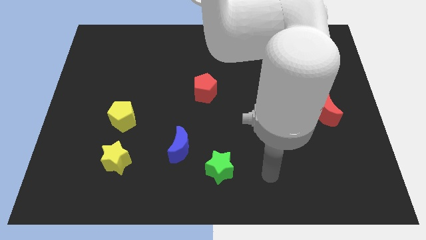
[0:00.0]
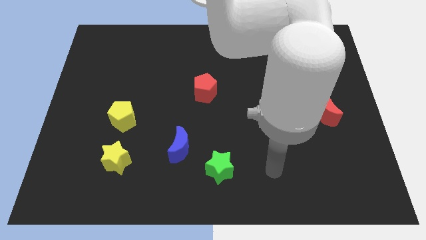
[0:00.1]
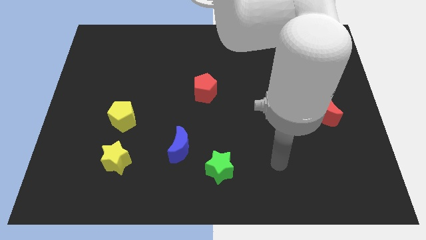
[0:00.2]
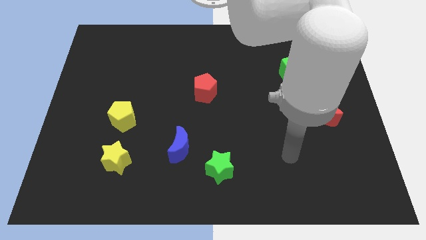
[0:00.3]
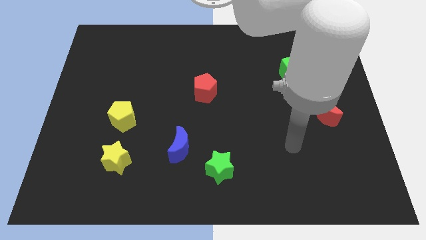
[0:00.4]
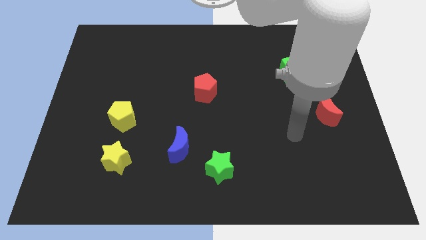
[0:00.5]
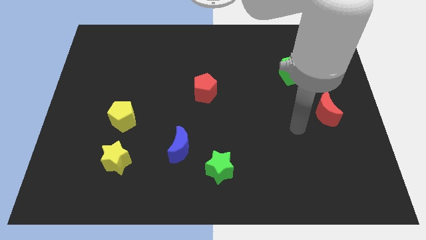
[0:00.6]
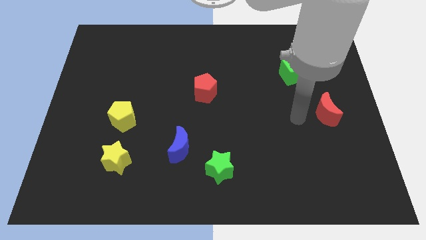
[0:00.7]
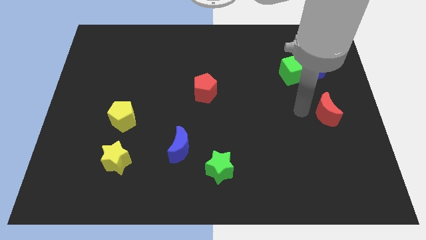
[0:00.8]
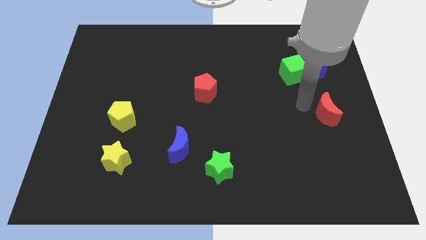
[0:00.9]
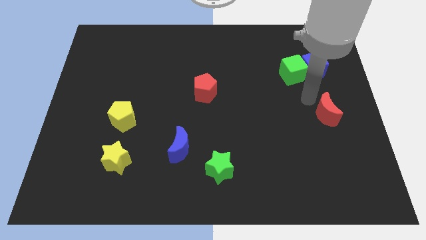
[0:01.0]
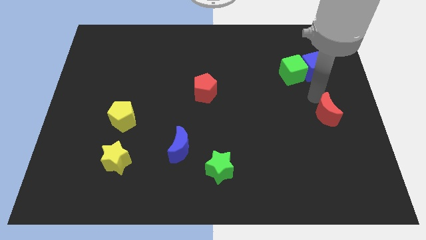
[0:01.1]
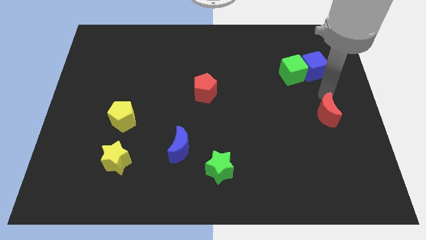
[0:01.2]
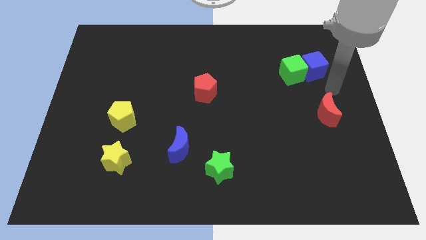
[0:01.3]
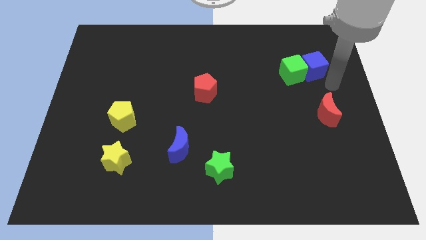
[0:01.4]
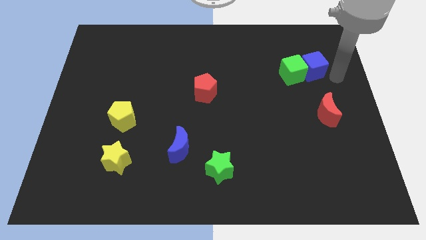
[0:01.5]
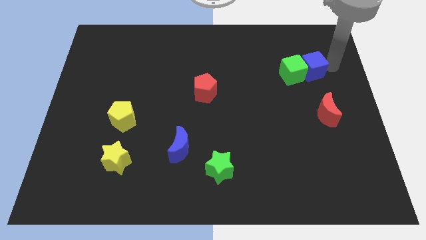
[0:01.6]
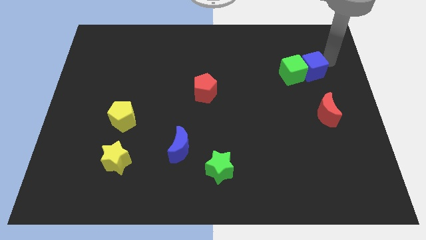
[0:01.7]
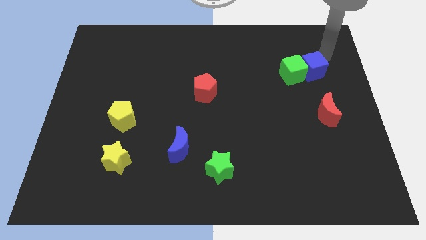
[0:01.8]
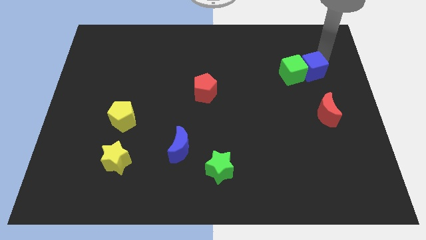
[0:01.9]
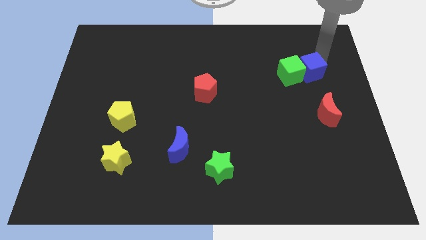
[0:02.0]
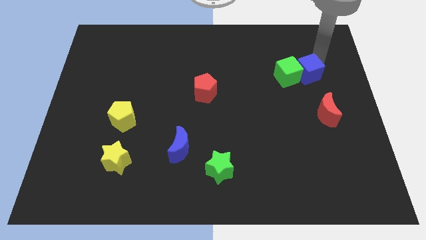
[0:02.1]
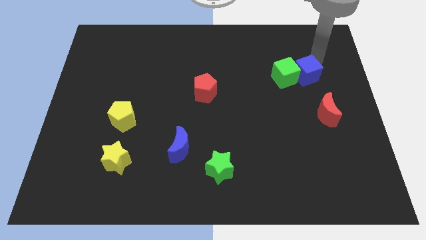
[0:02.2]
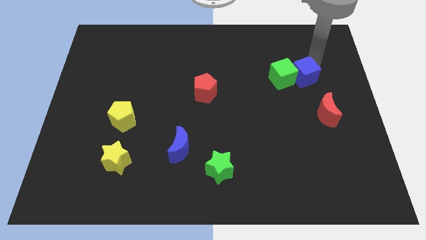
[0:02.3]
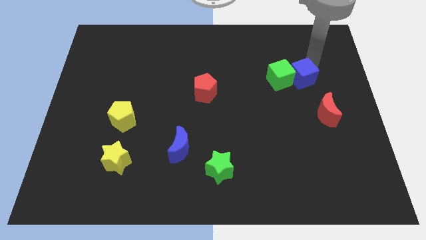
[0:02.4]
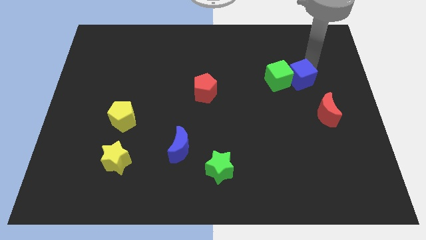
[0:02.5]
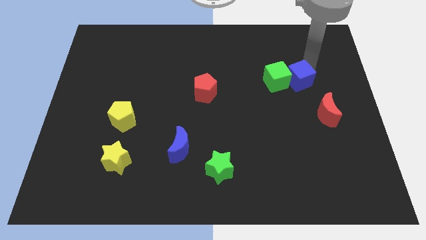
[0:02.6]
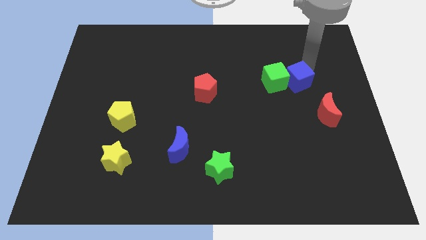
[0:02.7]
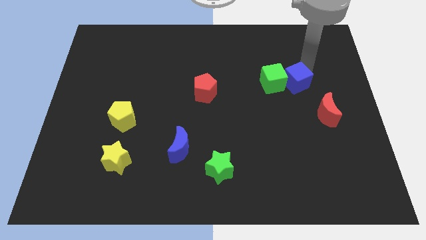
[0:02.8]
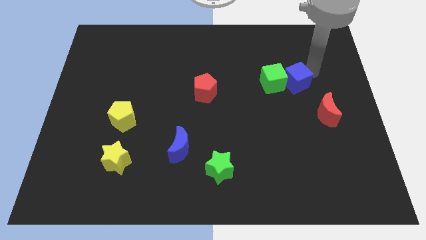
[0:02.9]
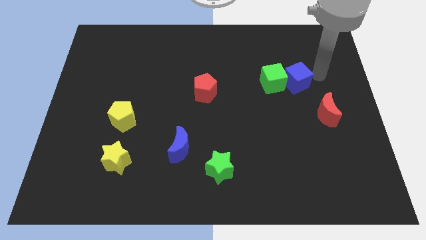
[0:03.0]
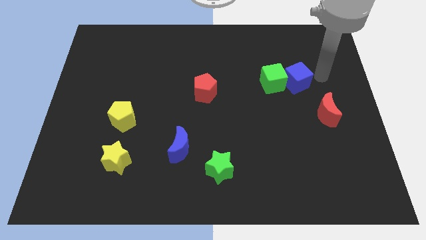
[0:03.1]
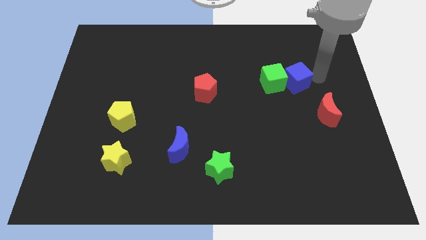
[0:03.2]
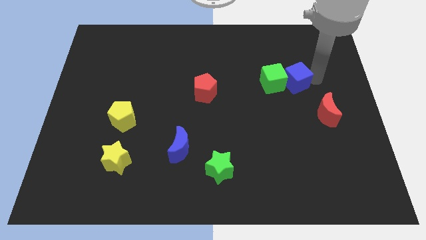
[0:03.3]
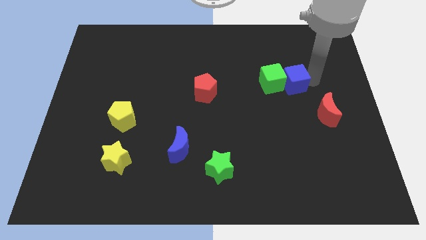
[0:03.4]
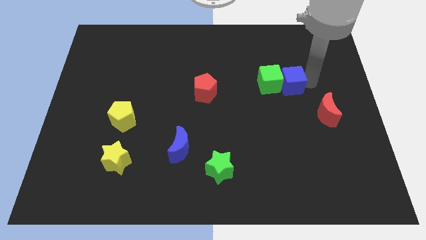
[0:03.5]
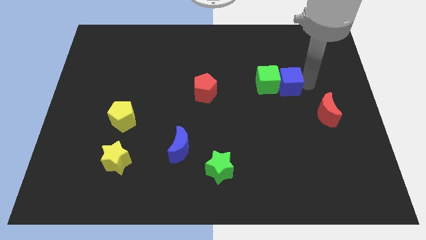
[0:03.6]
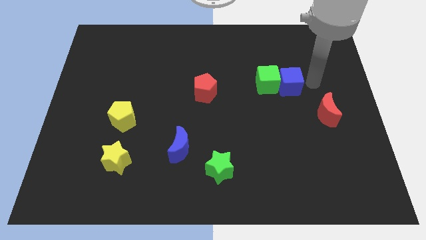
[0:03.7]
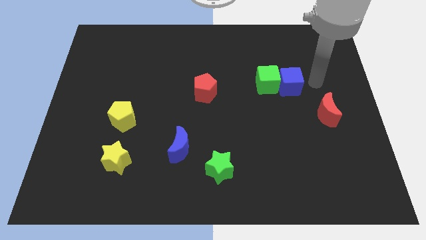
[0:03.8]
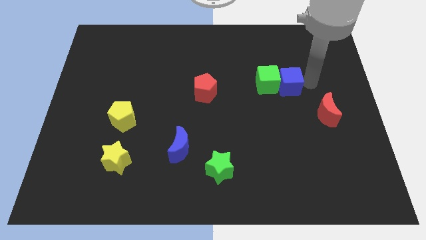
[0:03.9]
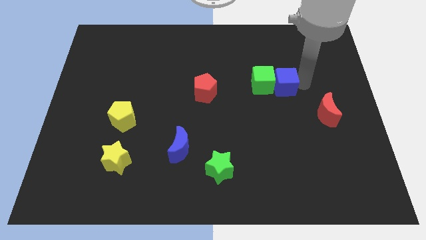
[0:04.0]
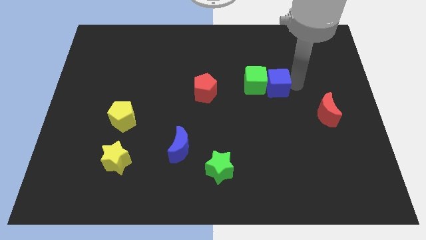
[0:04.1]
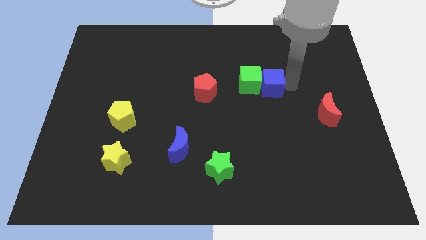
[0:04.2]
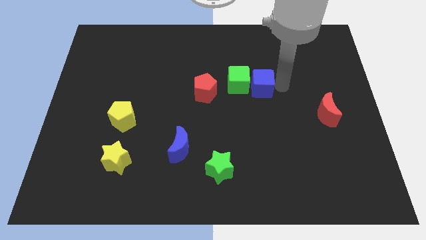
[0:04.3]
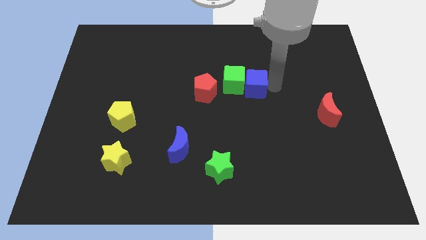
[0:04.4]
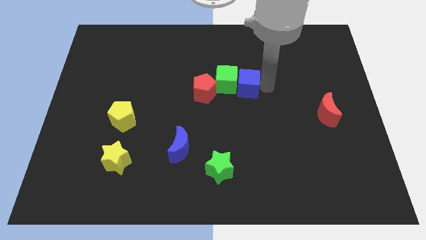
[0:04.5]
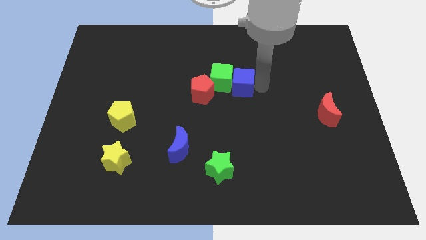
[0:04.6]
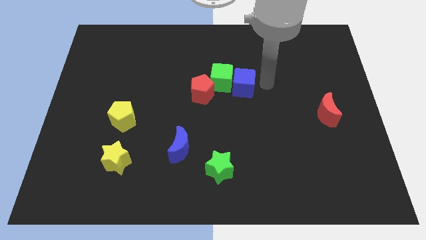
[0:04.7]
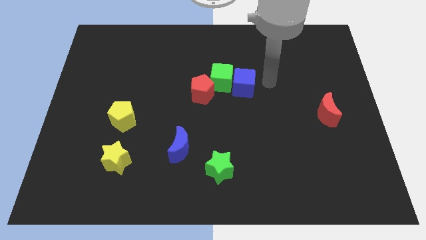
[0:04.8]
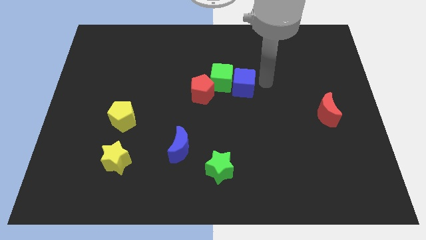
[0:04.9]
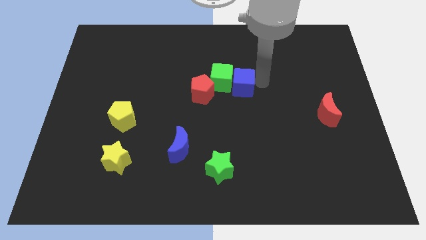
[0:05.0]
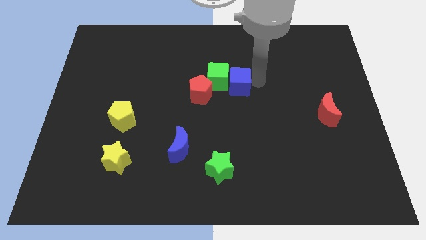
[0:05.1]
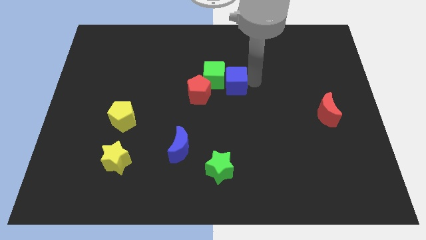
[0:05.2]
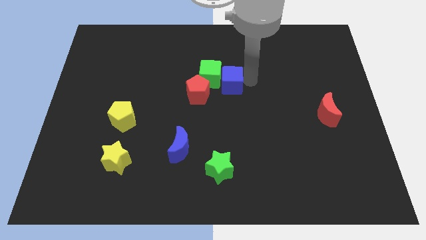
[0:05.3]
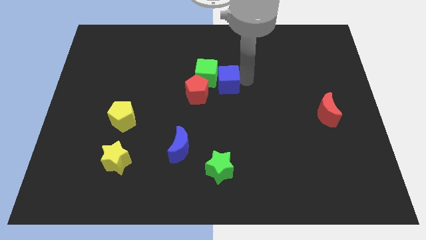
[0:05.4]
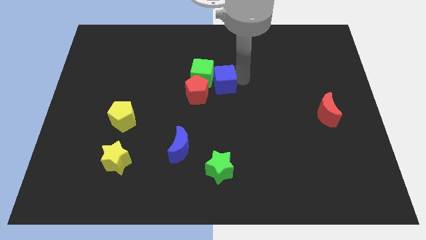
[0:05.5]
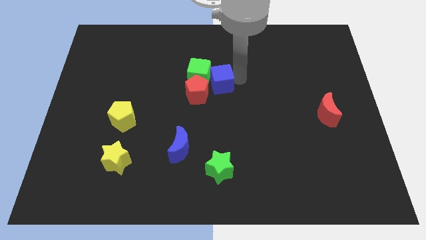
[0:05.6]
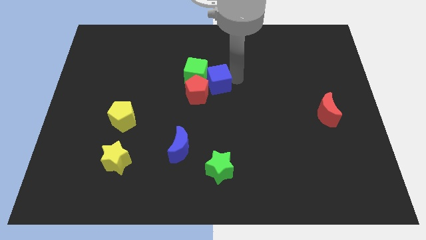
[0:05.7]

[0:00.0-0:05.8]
move the blue cube next to the red pentagon

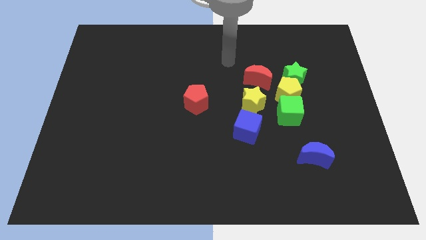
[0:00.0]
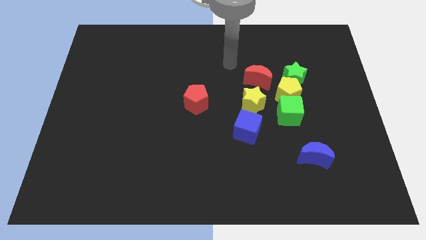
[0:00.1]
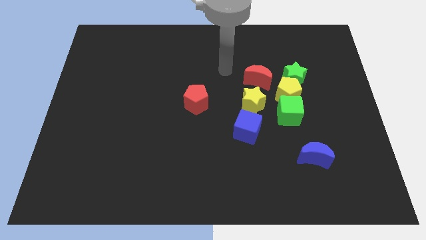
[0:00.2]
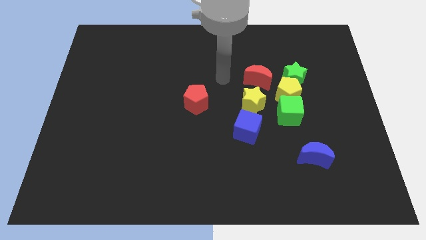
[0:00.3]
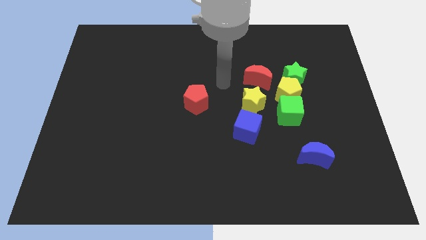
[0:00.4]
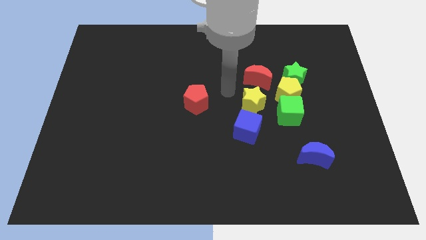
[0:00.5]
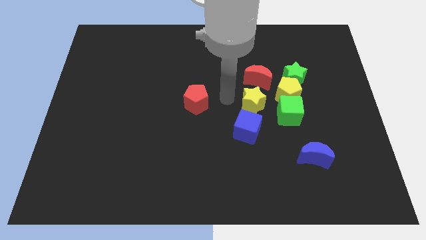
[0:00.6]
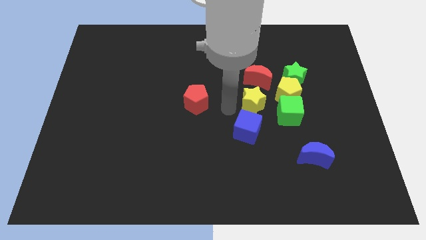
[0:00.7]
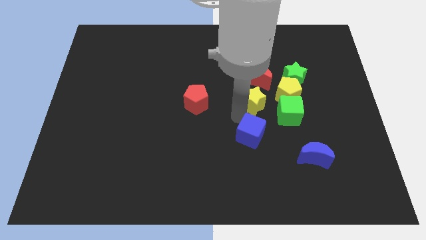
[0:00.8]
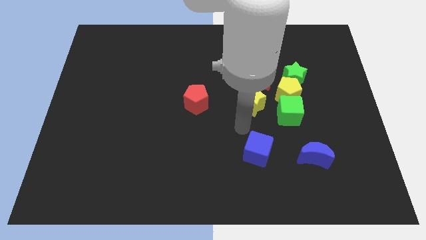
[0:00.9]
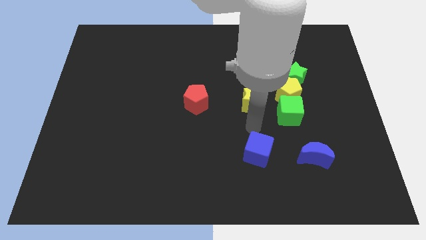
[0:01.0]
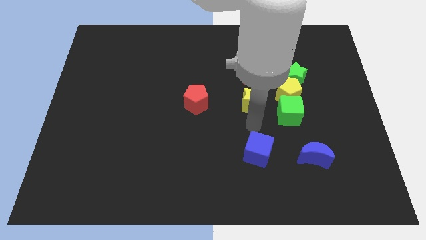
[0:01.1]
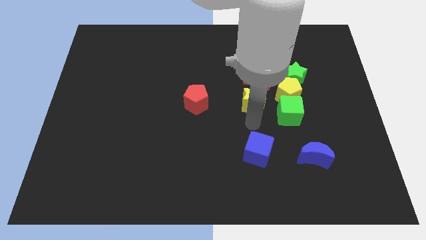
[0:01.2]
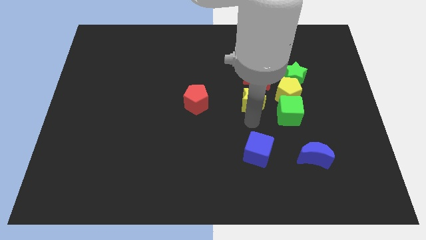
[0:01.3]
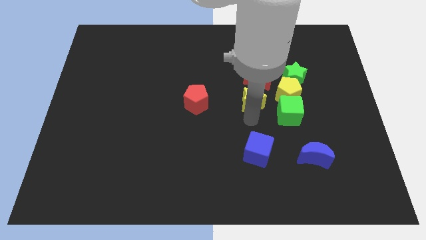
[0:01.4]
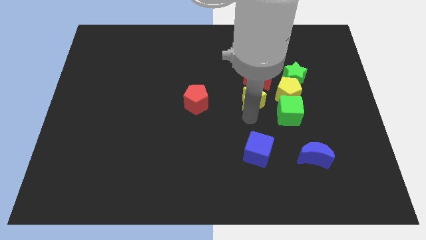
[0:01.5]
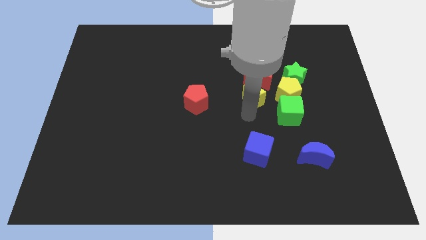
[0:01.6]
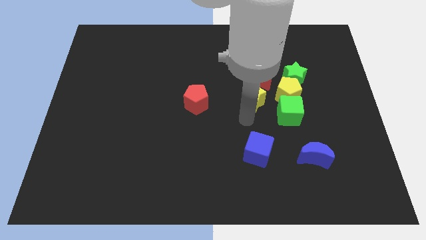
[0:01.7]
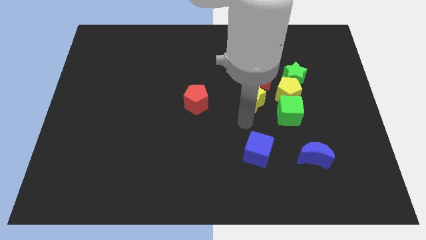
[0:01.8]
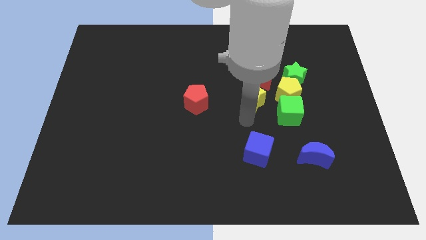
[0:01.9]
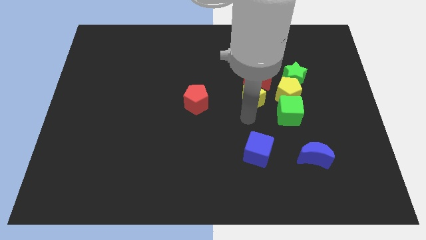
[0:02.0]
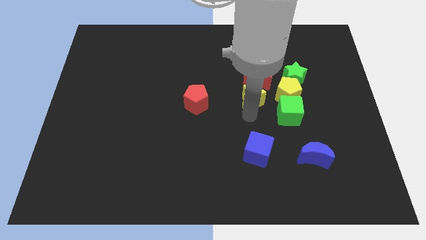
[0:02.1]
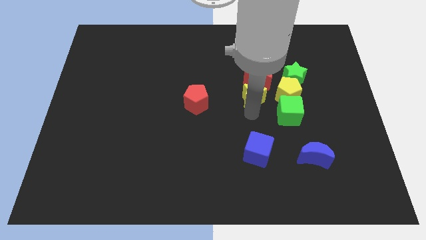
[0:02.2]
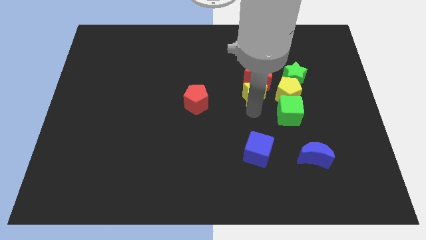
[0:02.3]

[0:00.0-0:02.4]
put the yellow star close to the red moon
